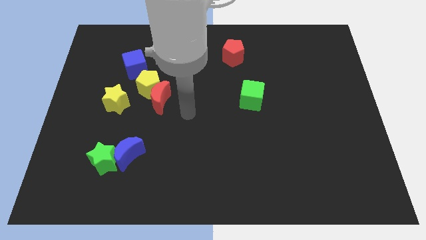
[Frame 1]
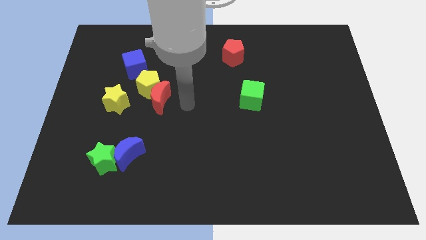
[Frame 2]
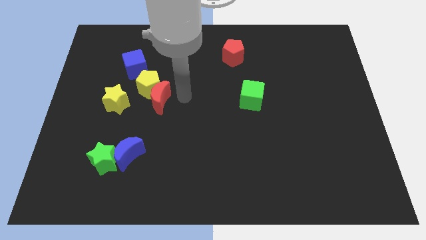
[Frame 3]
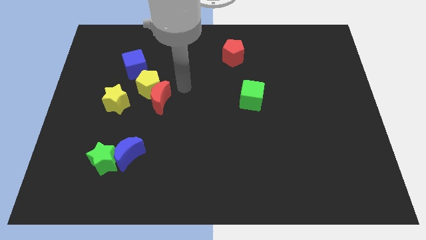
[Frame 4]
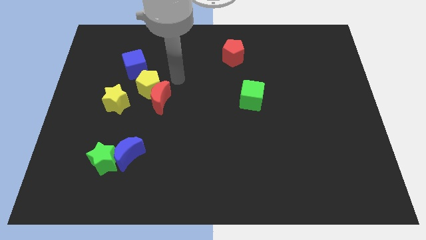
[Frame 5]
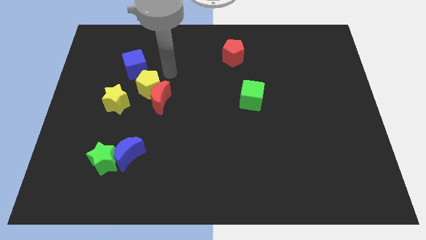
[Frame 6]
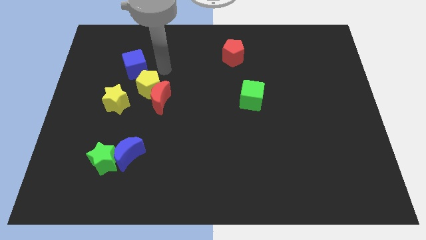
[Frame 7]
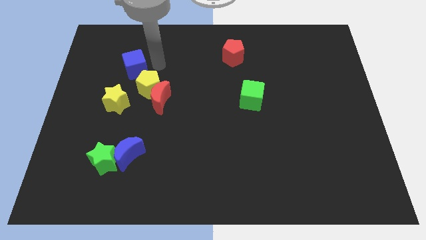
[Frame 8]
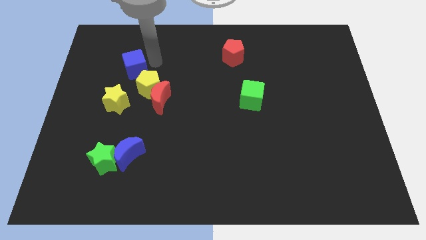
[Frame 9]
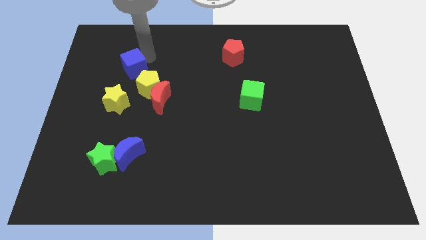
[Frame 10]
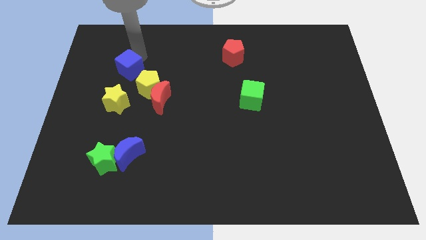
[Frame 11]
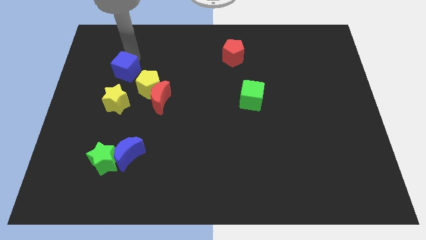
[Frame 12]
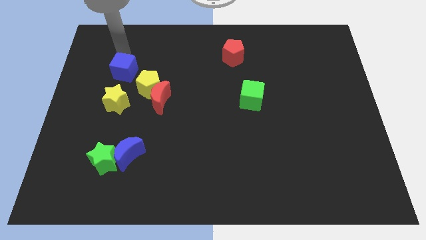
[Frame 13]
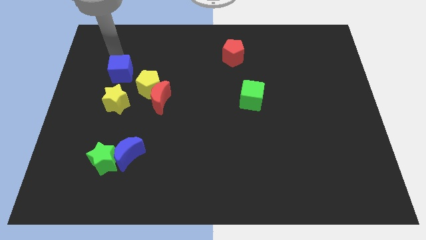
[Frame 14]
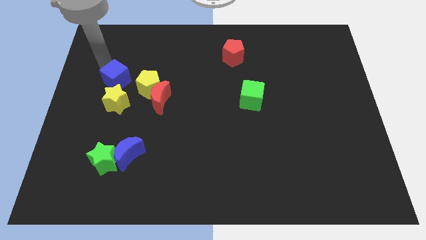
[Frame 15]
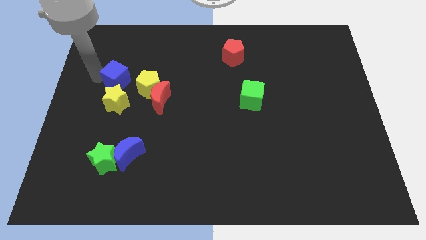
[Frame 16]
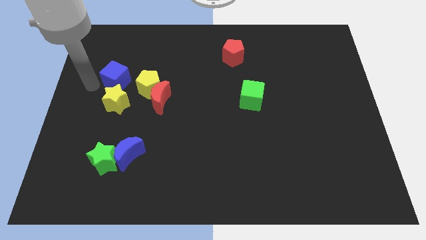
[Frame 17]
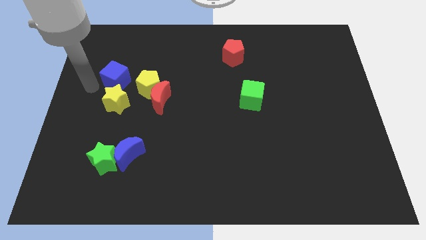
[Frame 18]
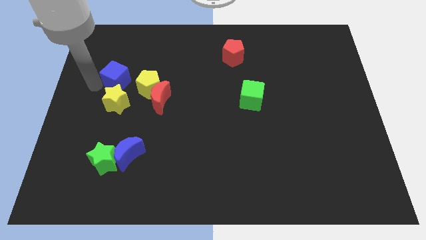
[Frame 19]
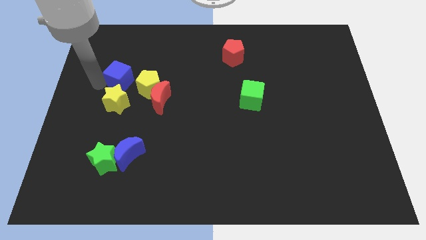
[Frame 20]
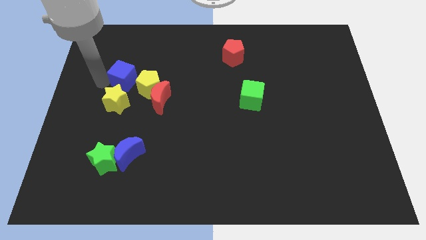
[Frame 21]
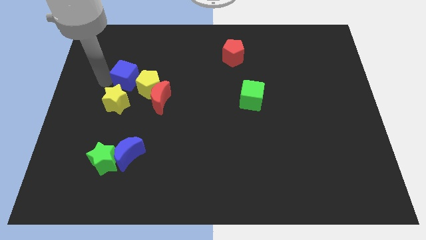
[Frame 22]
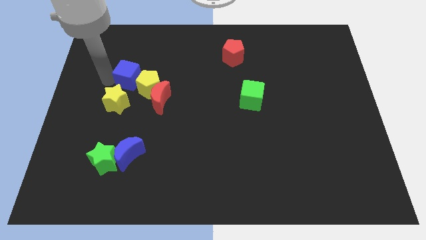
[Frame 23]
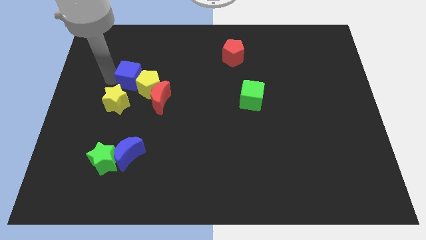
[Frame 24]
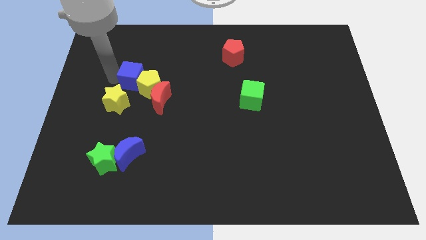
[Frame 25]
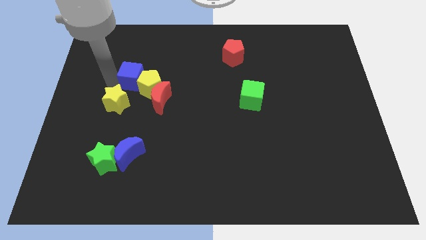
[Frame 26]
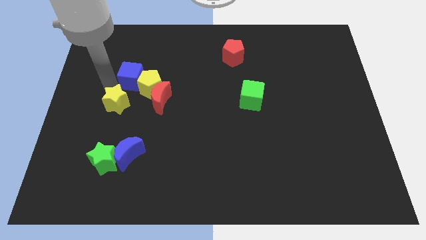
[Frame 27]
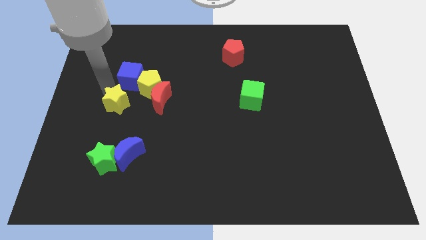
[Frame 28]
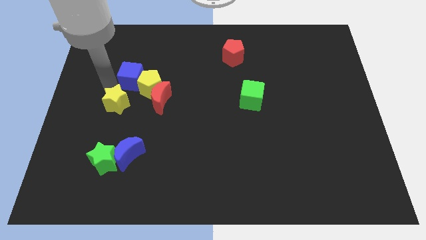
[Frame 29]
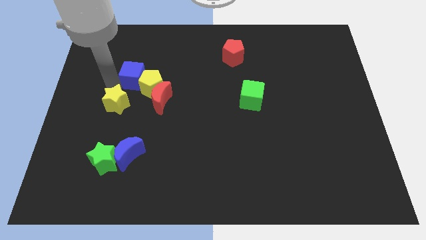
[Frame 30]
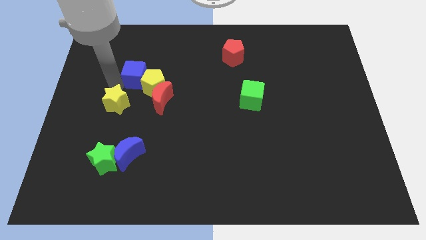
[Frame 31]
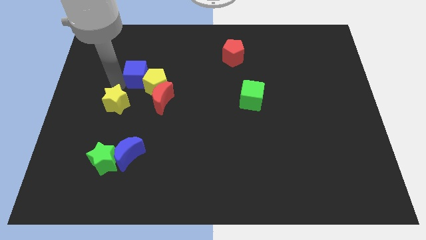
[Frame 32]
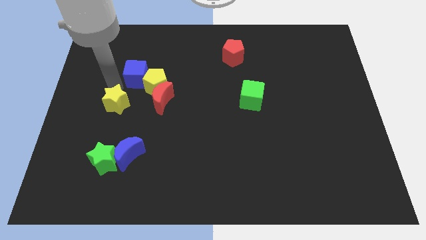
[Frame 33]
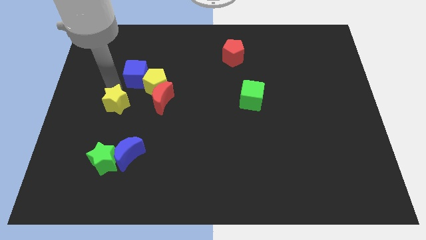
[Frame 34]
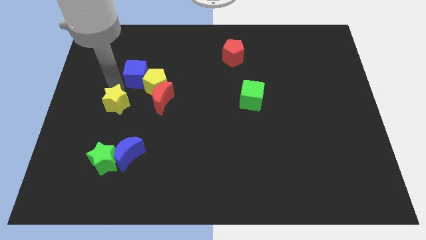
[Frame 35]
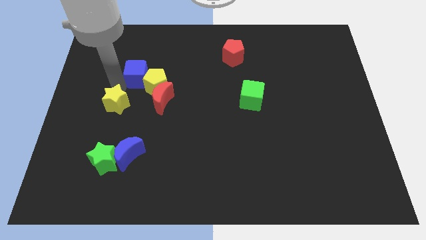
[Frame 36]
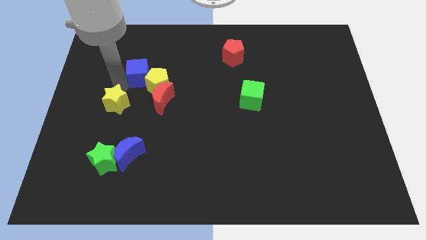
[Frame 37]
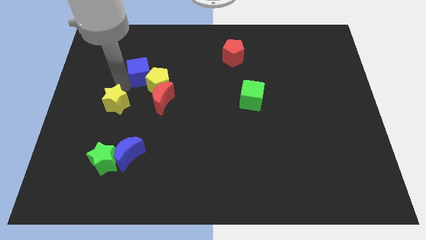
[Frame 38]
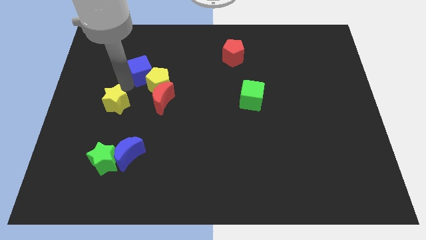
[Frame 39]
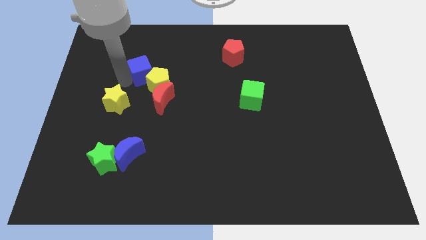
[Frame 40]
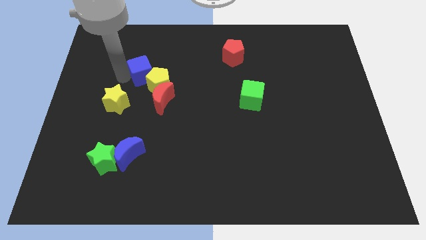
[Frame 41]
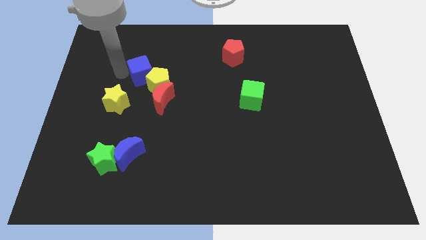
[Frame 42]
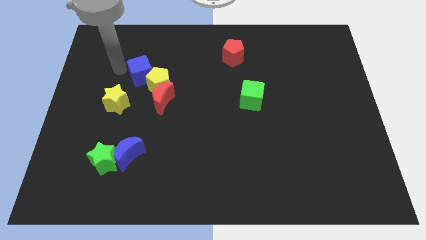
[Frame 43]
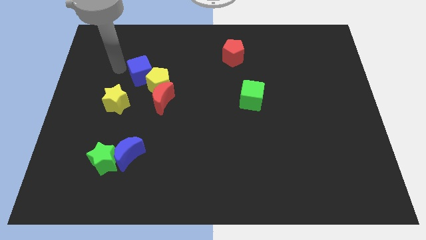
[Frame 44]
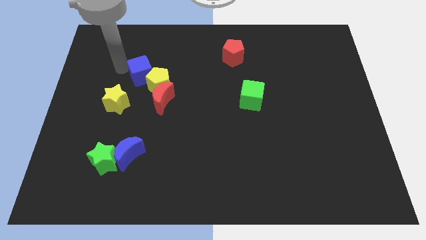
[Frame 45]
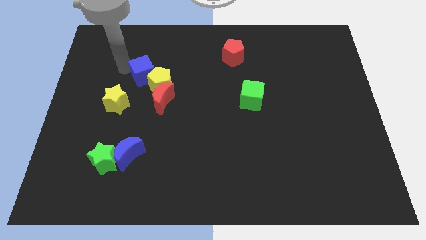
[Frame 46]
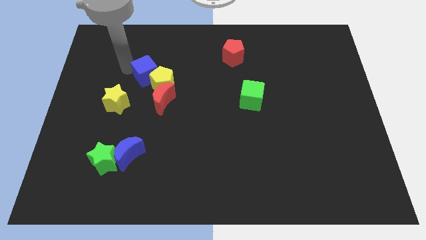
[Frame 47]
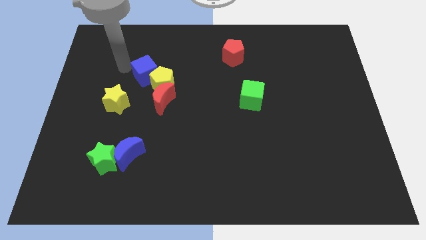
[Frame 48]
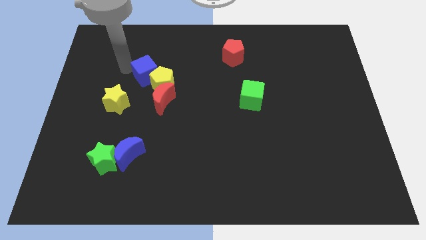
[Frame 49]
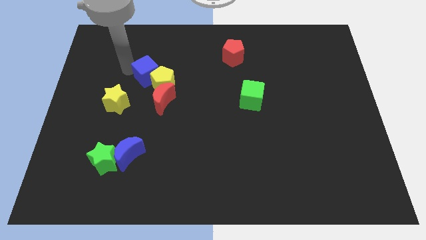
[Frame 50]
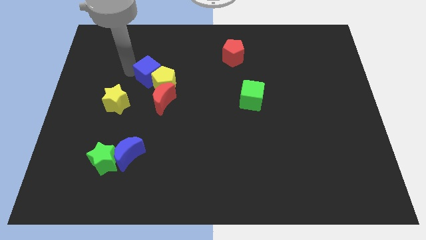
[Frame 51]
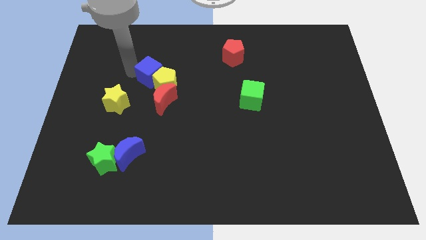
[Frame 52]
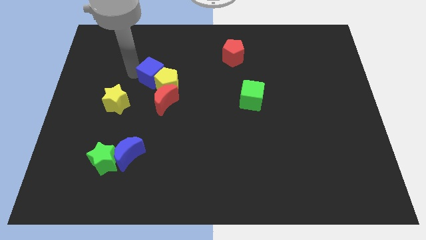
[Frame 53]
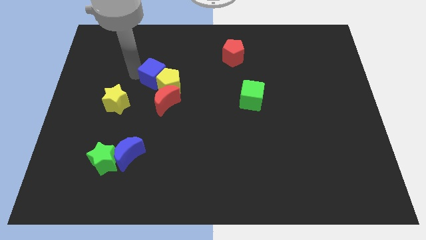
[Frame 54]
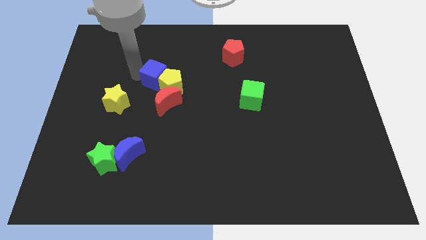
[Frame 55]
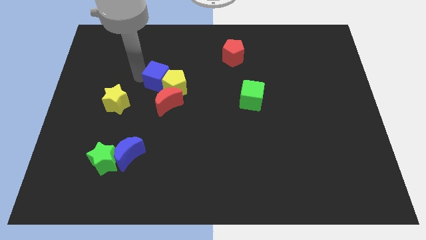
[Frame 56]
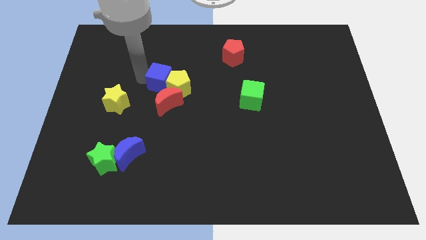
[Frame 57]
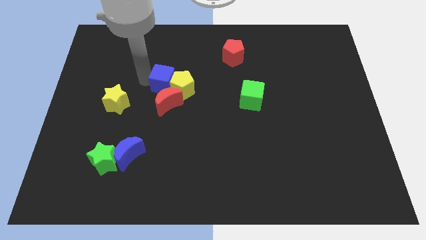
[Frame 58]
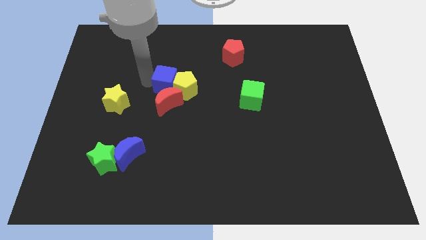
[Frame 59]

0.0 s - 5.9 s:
slide the blue cube to the top right of the red moon
